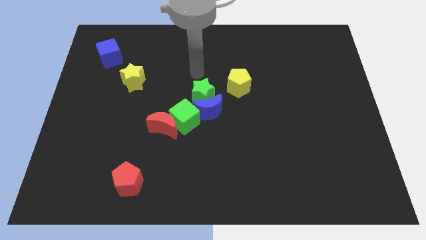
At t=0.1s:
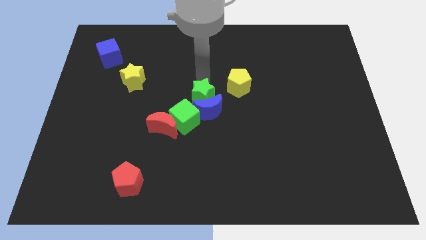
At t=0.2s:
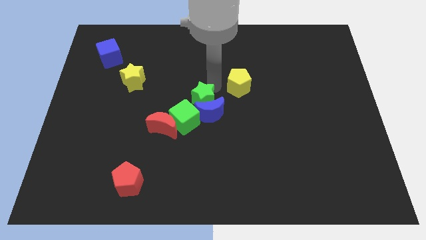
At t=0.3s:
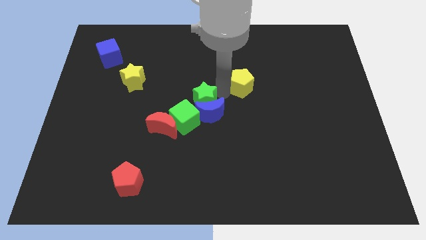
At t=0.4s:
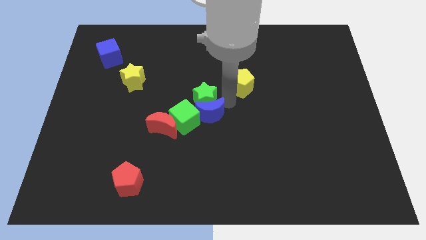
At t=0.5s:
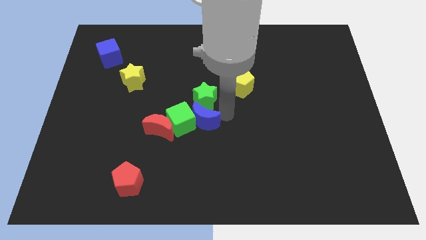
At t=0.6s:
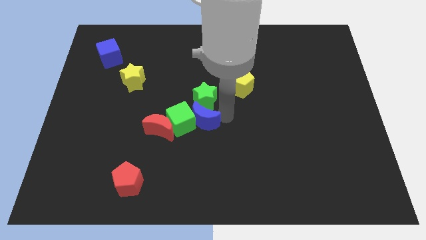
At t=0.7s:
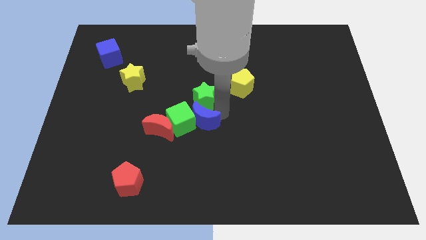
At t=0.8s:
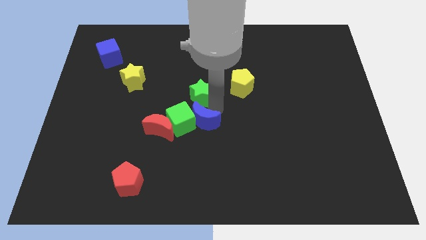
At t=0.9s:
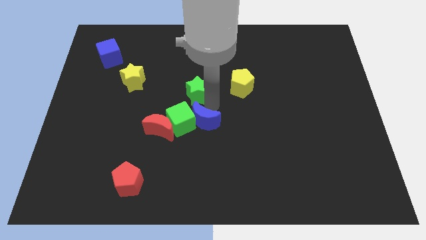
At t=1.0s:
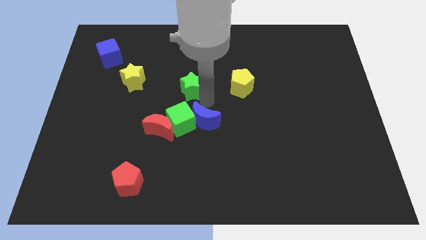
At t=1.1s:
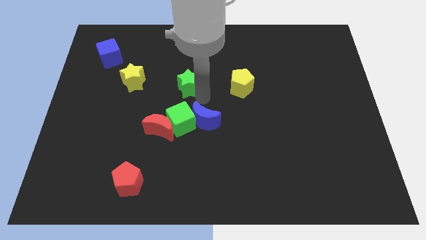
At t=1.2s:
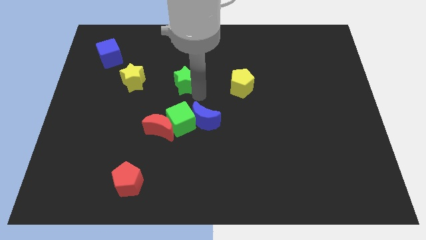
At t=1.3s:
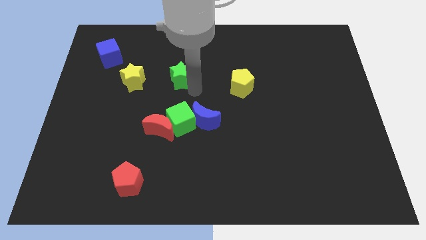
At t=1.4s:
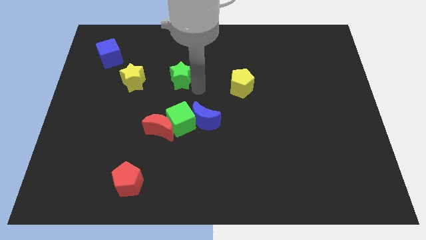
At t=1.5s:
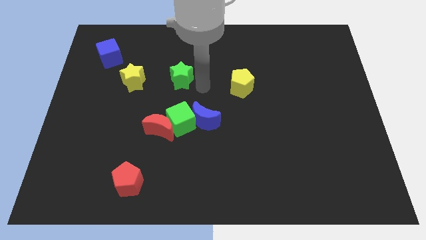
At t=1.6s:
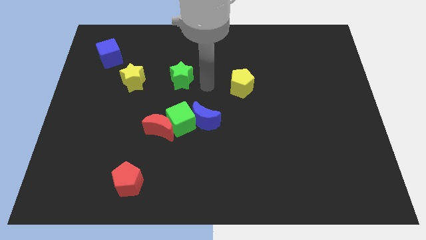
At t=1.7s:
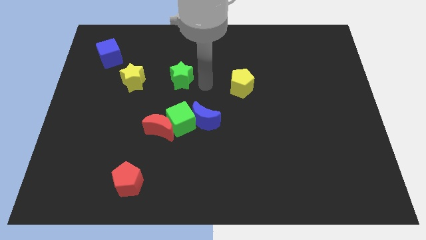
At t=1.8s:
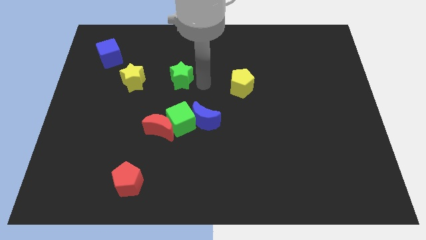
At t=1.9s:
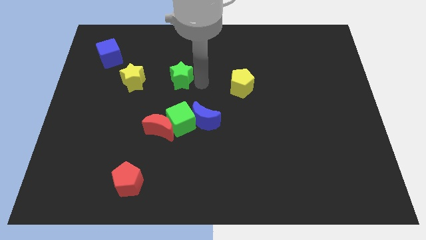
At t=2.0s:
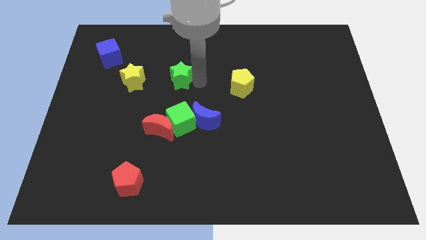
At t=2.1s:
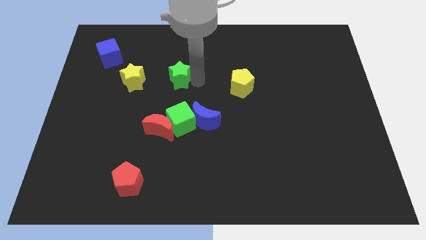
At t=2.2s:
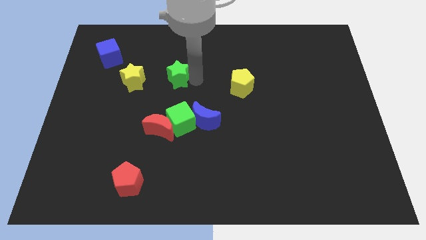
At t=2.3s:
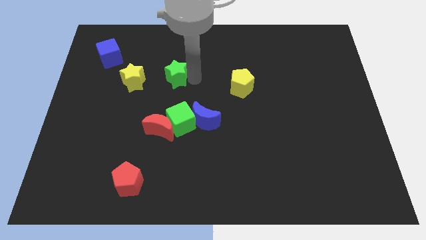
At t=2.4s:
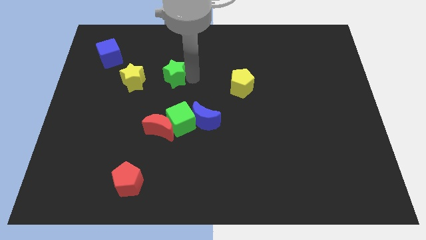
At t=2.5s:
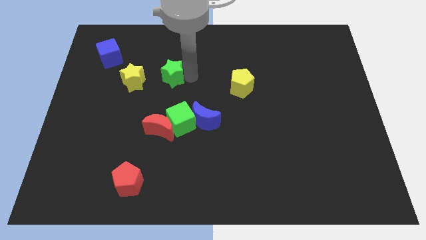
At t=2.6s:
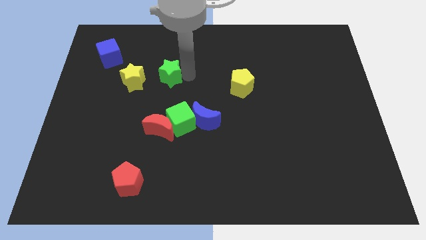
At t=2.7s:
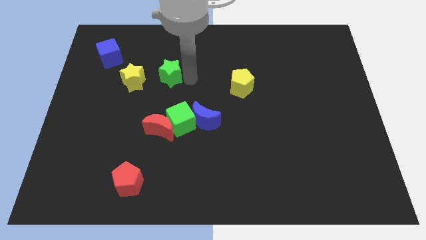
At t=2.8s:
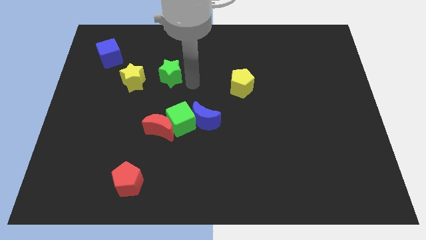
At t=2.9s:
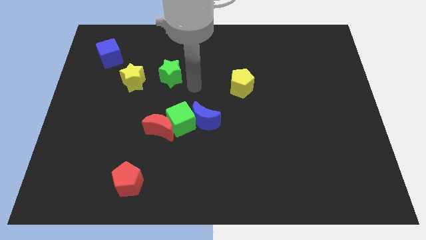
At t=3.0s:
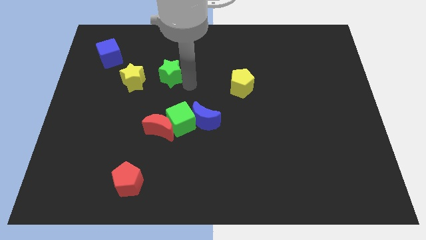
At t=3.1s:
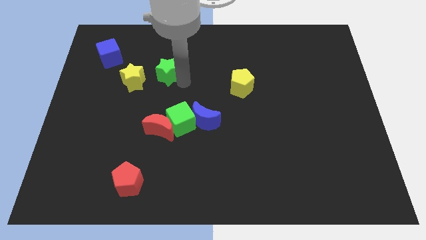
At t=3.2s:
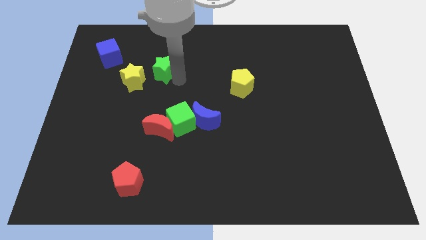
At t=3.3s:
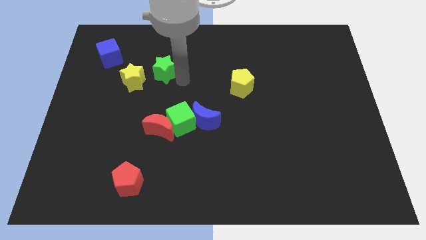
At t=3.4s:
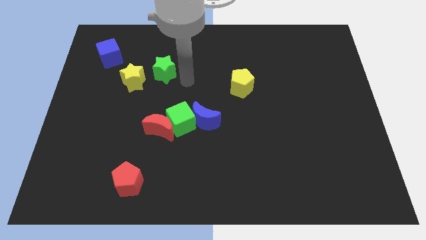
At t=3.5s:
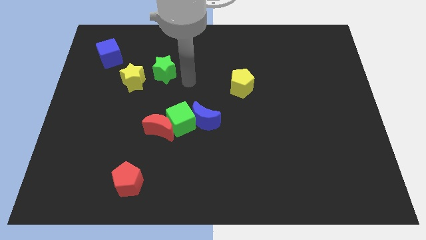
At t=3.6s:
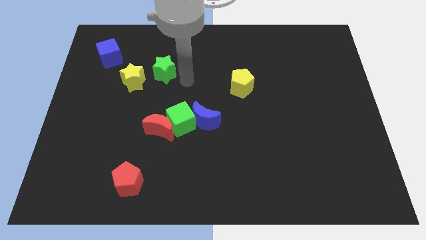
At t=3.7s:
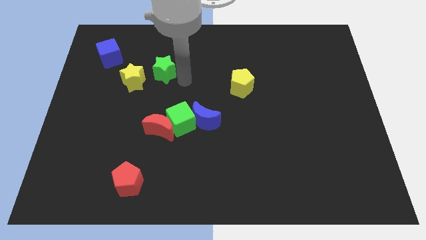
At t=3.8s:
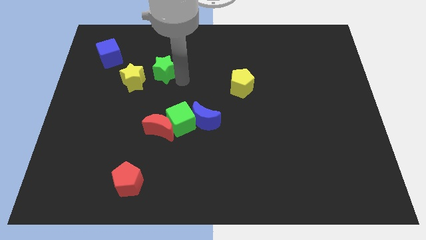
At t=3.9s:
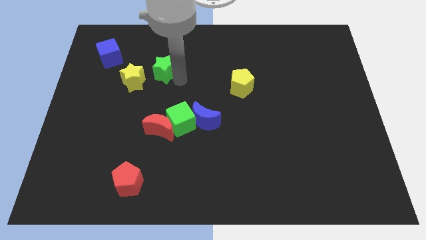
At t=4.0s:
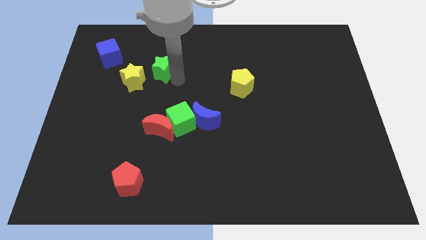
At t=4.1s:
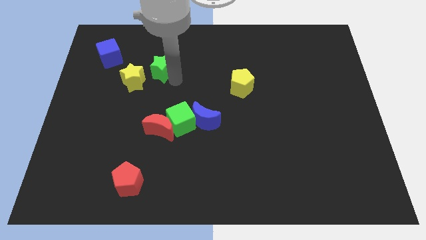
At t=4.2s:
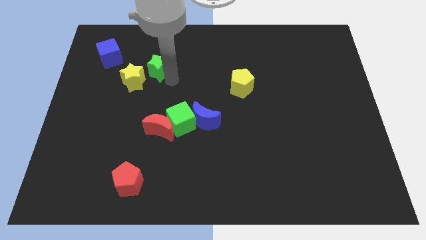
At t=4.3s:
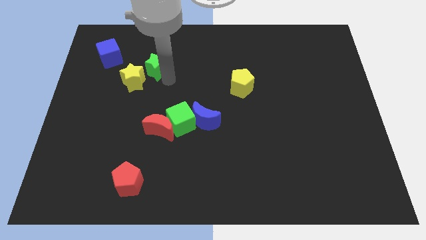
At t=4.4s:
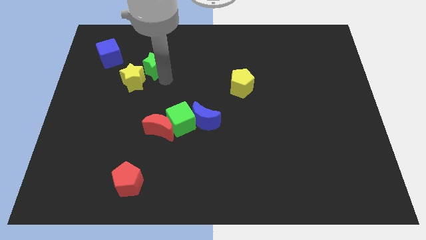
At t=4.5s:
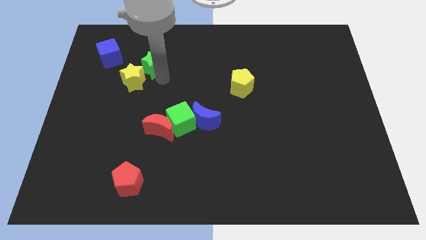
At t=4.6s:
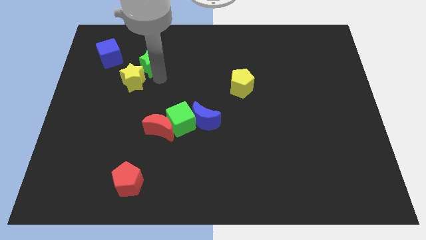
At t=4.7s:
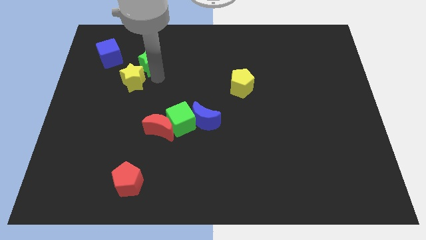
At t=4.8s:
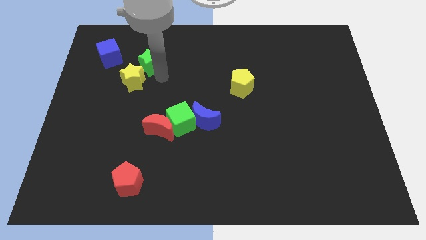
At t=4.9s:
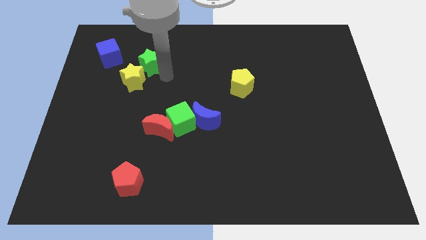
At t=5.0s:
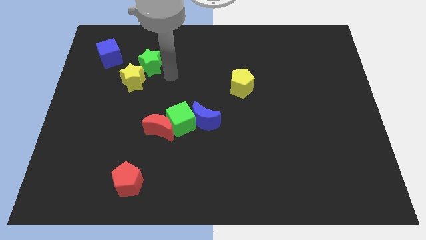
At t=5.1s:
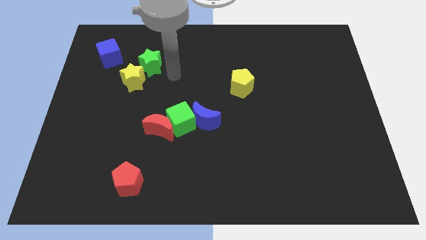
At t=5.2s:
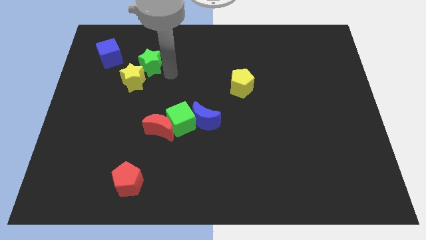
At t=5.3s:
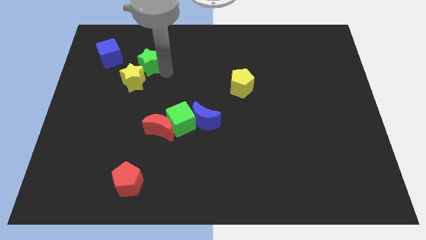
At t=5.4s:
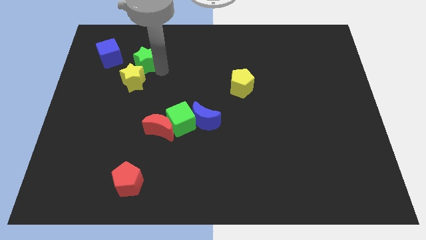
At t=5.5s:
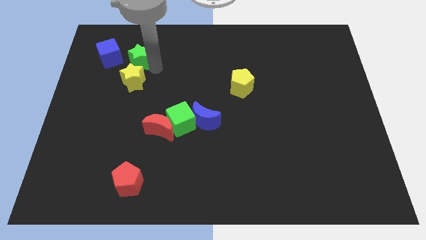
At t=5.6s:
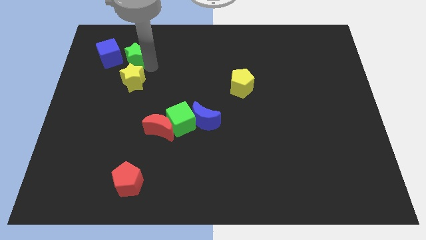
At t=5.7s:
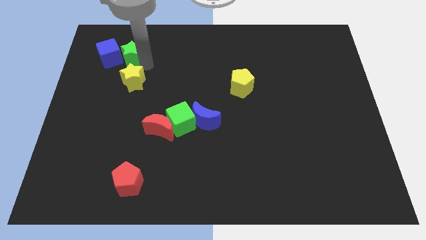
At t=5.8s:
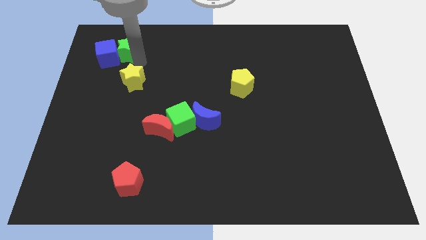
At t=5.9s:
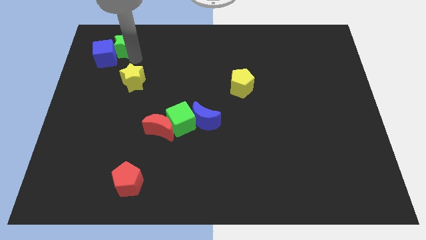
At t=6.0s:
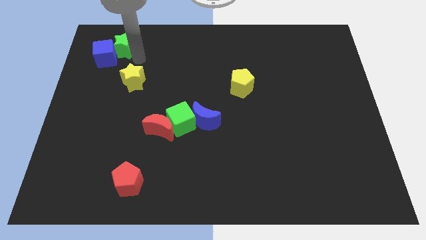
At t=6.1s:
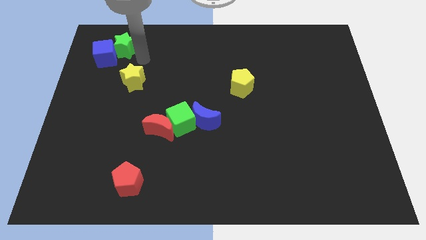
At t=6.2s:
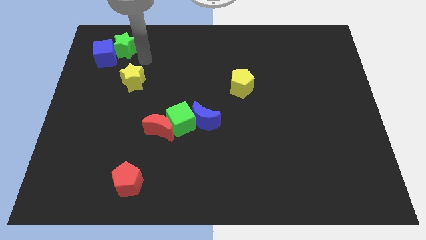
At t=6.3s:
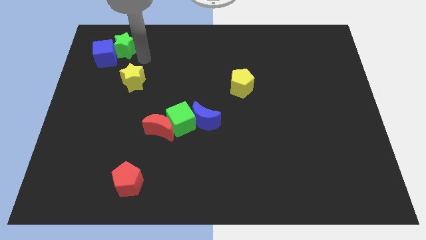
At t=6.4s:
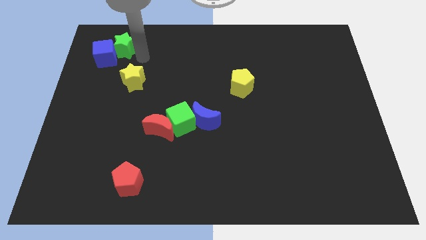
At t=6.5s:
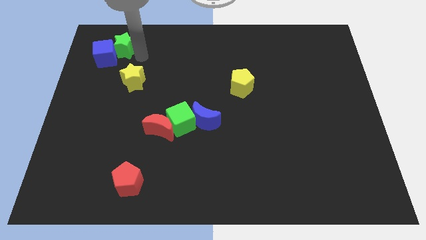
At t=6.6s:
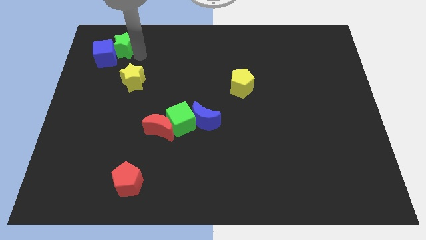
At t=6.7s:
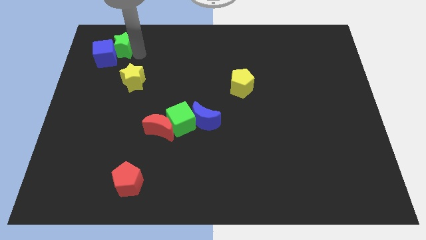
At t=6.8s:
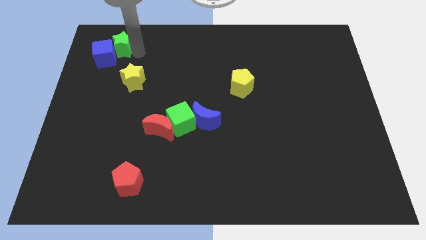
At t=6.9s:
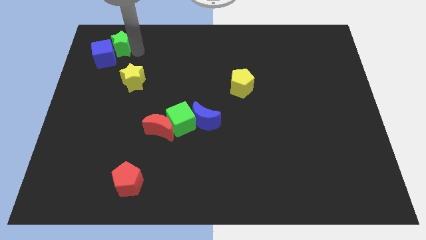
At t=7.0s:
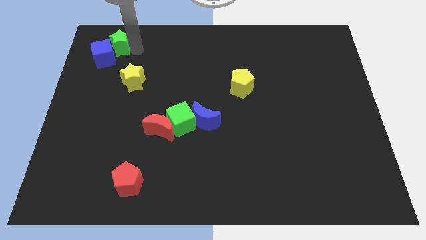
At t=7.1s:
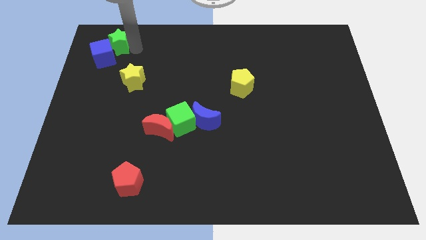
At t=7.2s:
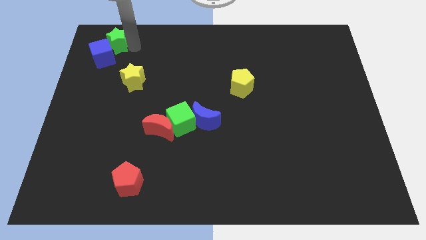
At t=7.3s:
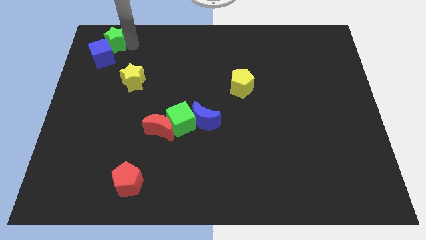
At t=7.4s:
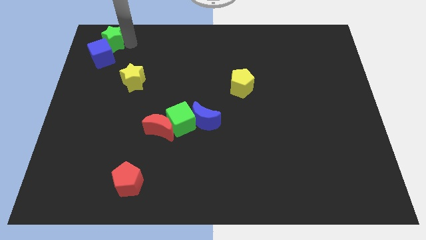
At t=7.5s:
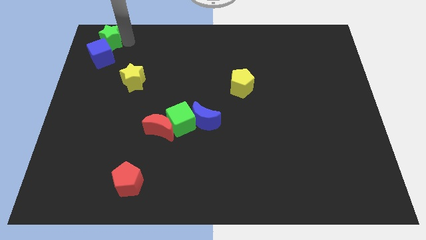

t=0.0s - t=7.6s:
move the green star to the top left of the board
